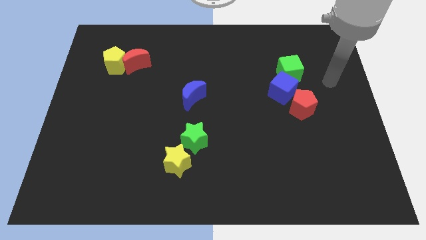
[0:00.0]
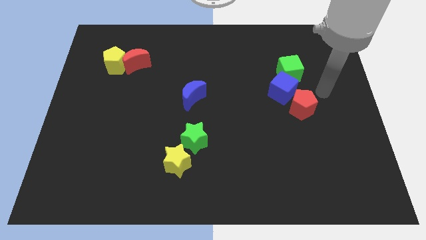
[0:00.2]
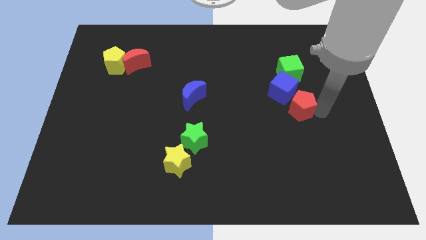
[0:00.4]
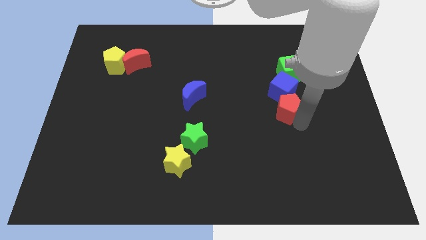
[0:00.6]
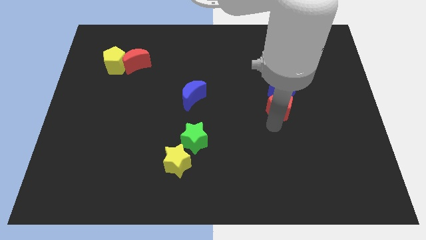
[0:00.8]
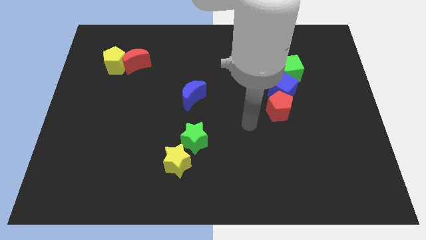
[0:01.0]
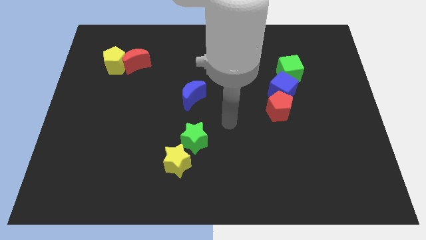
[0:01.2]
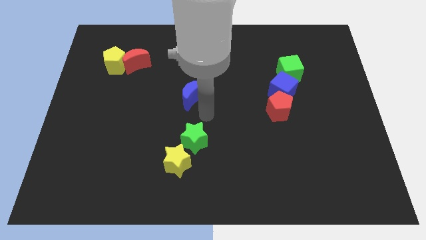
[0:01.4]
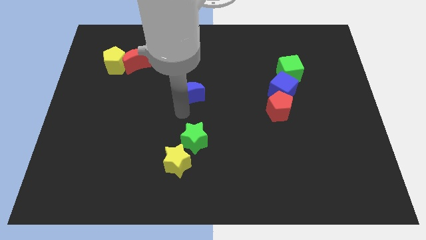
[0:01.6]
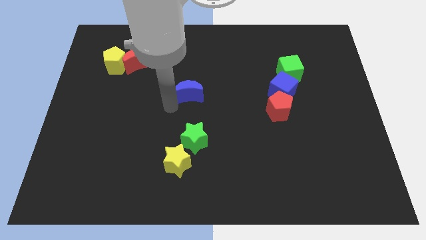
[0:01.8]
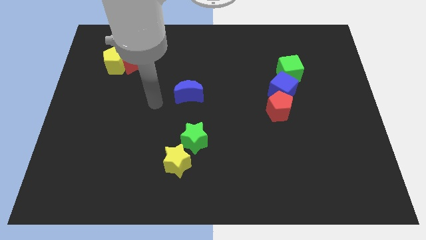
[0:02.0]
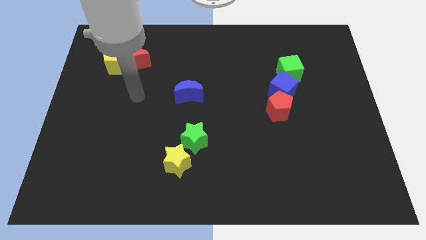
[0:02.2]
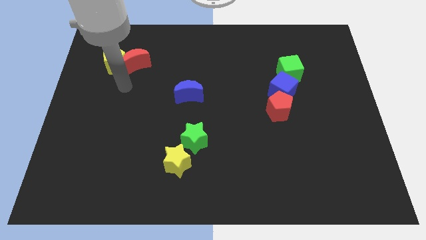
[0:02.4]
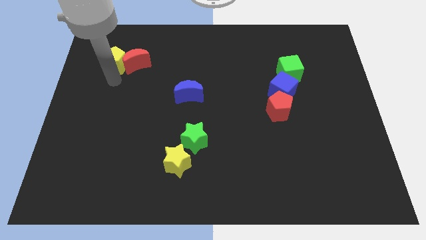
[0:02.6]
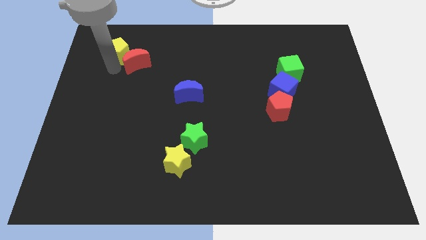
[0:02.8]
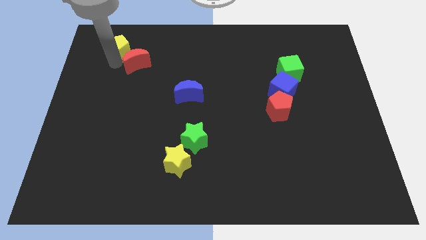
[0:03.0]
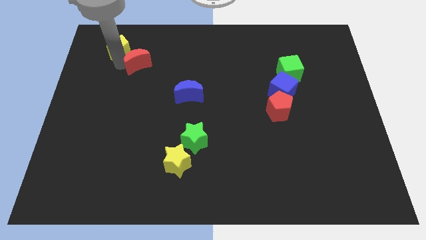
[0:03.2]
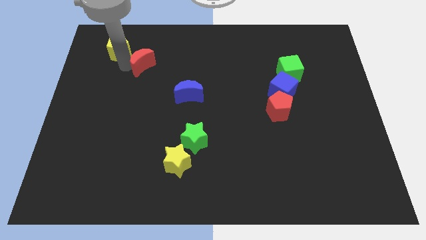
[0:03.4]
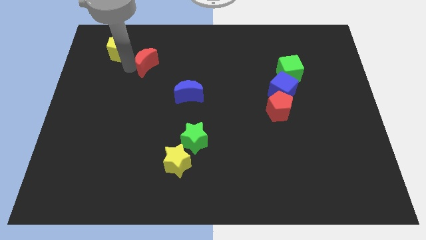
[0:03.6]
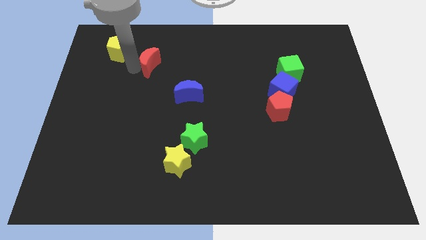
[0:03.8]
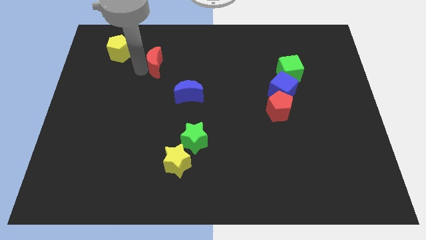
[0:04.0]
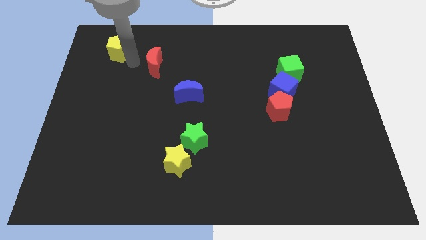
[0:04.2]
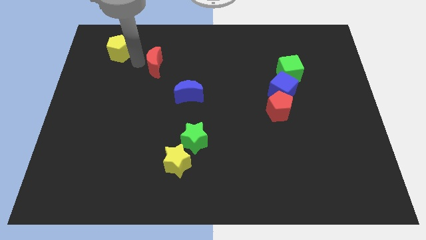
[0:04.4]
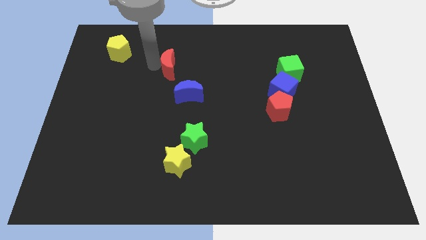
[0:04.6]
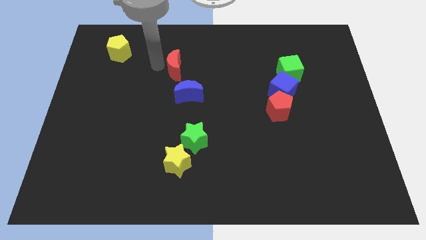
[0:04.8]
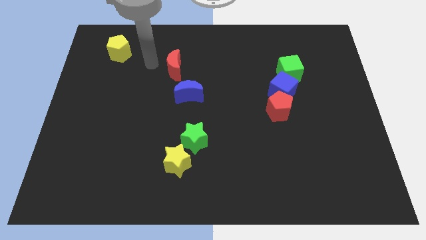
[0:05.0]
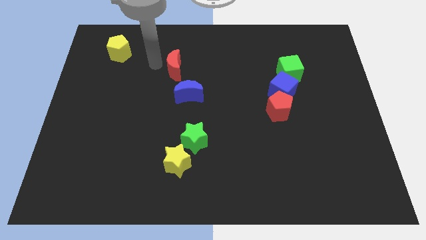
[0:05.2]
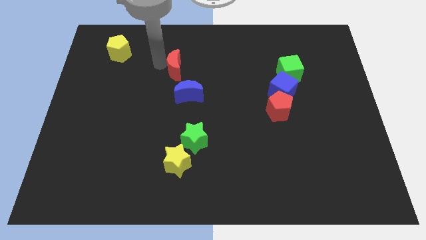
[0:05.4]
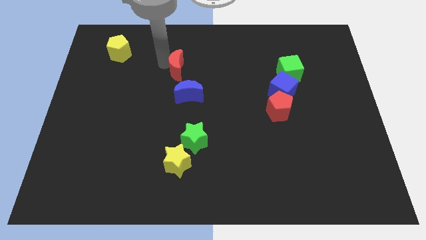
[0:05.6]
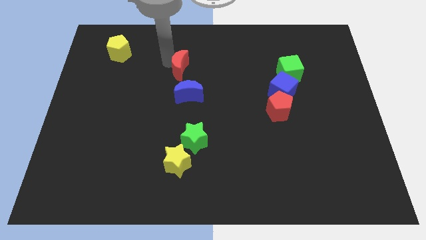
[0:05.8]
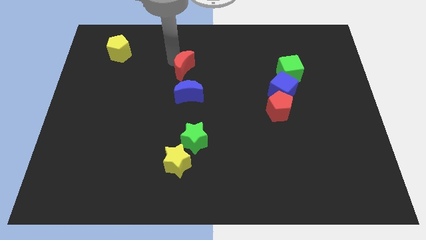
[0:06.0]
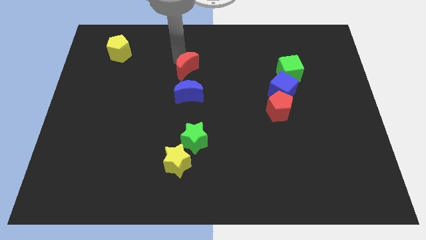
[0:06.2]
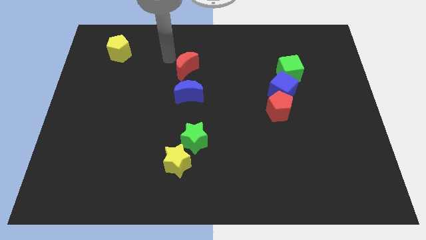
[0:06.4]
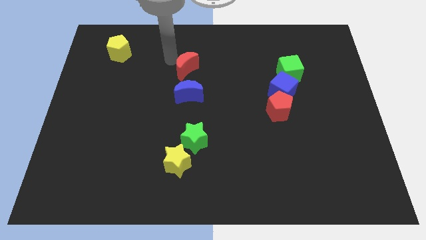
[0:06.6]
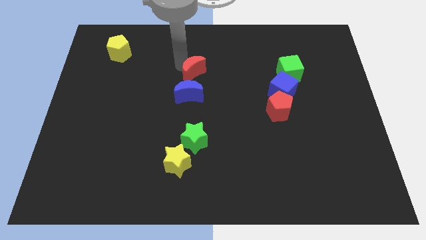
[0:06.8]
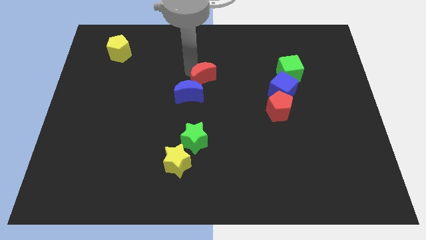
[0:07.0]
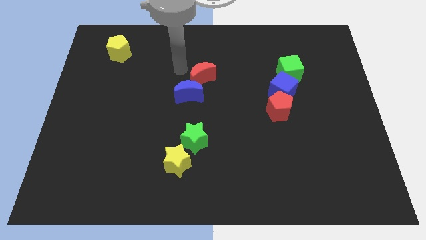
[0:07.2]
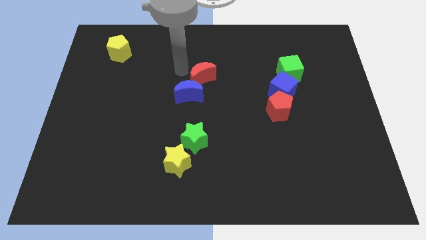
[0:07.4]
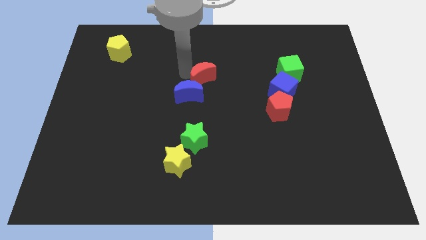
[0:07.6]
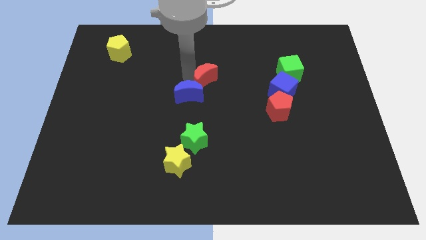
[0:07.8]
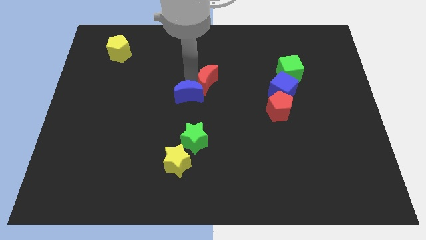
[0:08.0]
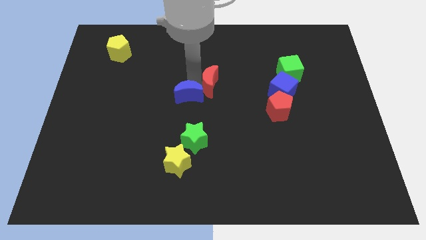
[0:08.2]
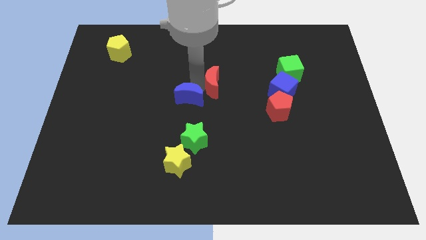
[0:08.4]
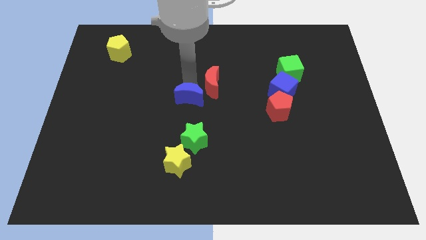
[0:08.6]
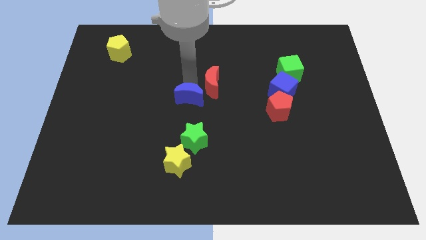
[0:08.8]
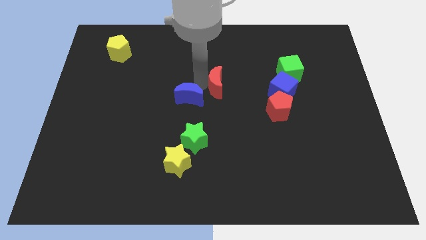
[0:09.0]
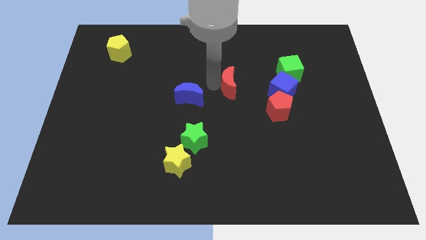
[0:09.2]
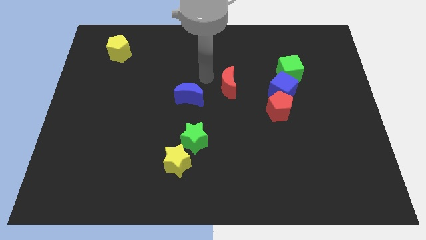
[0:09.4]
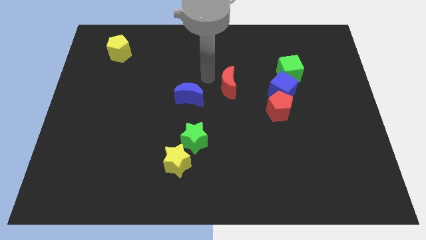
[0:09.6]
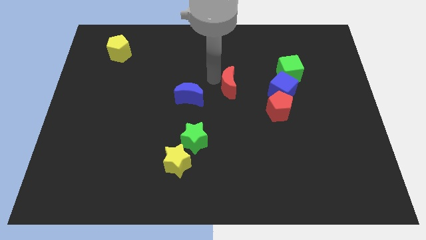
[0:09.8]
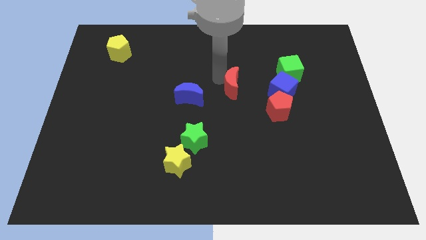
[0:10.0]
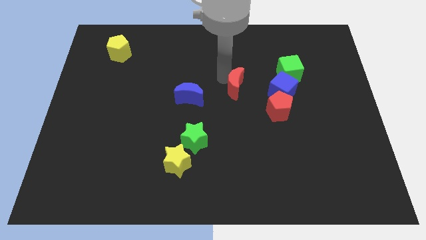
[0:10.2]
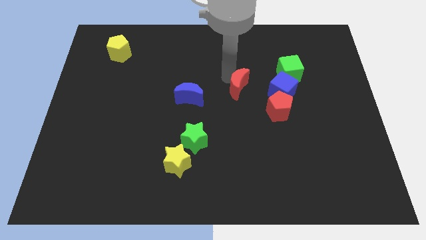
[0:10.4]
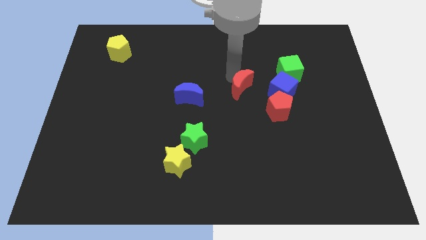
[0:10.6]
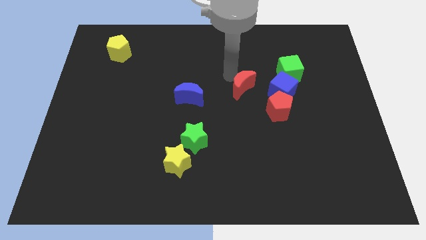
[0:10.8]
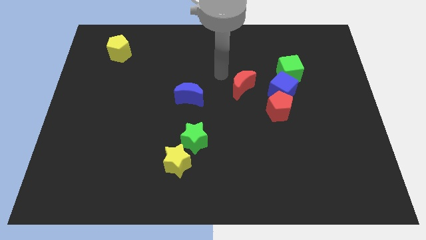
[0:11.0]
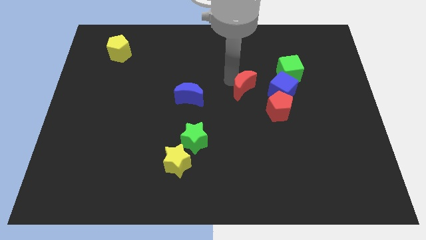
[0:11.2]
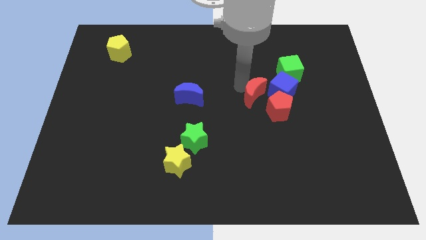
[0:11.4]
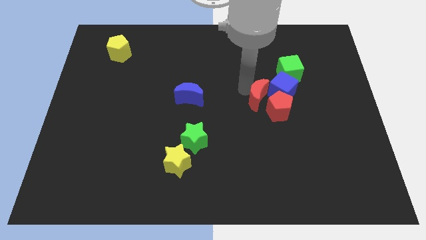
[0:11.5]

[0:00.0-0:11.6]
move the red moon next to the red pentagon

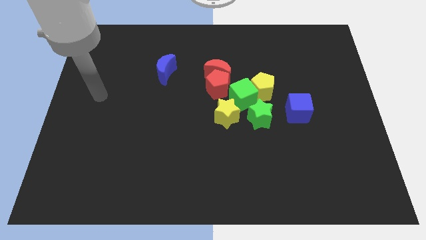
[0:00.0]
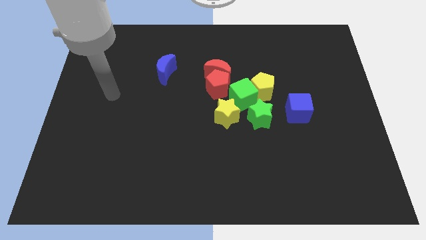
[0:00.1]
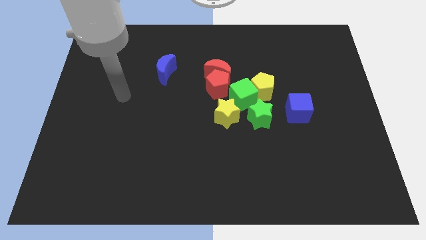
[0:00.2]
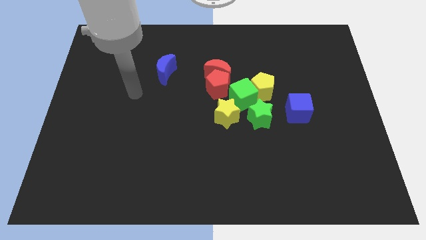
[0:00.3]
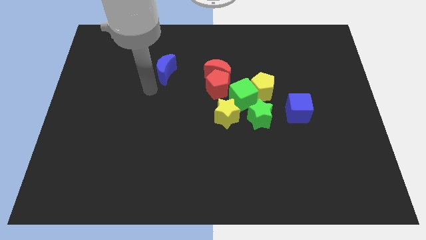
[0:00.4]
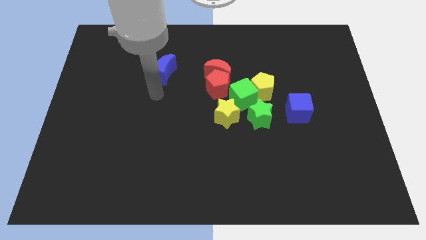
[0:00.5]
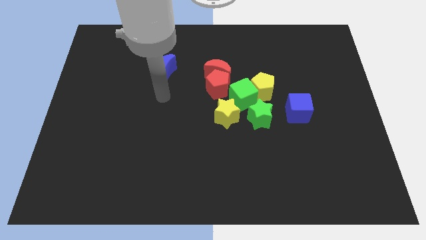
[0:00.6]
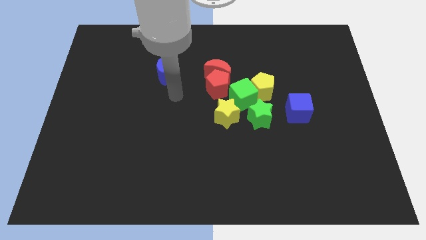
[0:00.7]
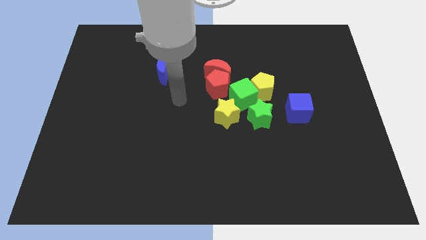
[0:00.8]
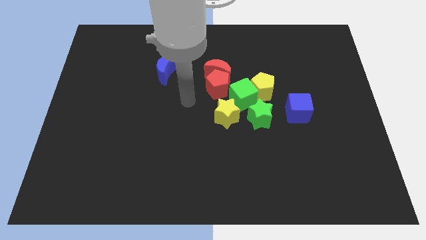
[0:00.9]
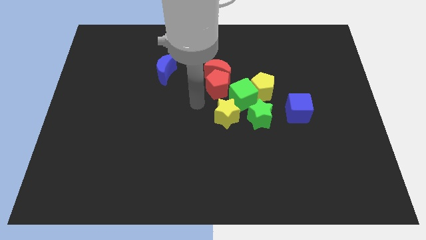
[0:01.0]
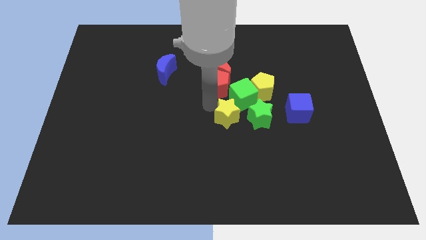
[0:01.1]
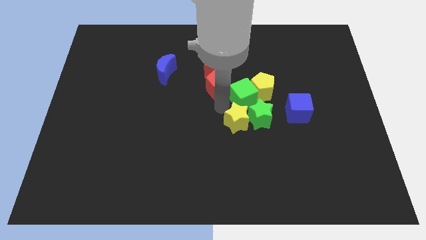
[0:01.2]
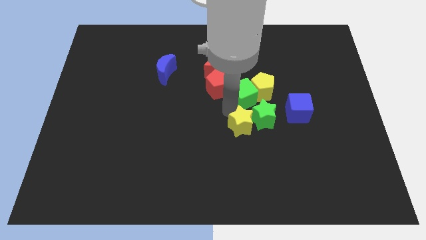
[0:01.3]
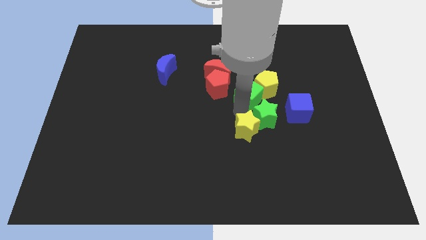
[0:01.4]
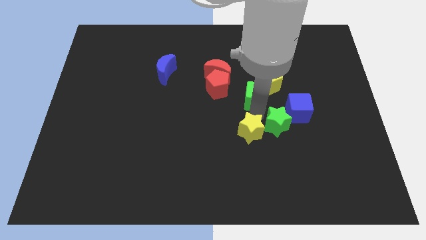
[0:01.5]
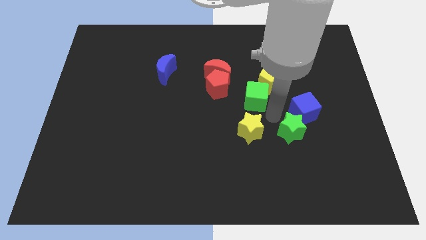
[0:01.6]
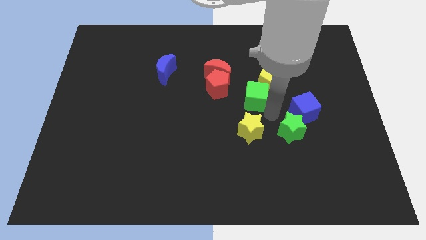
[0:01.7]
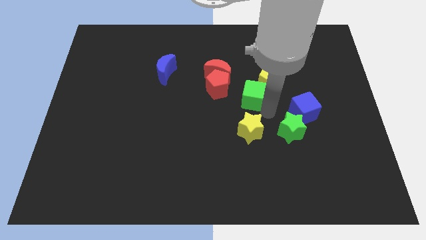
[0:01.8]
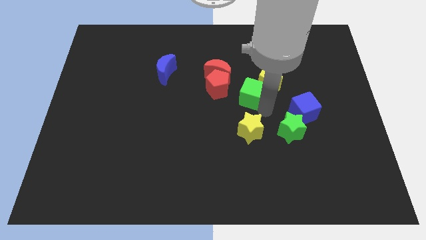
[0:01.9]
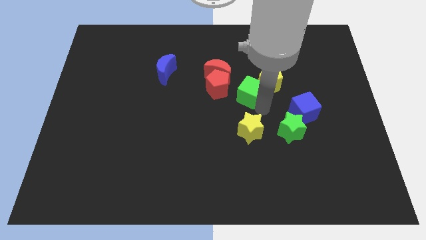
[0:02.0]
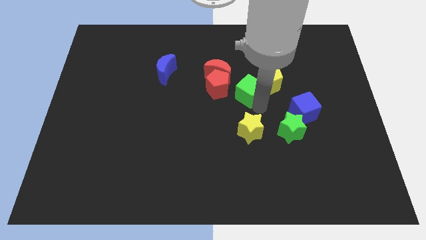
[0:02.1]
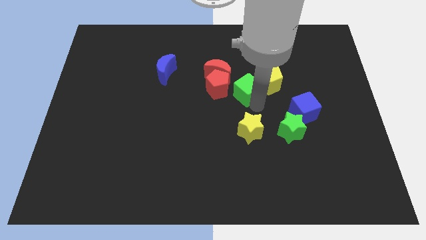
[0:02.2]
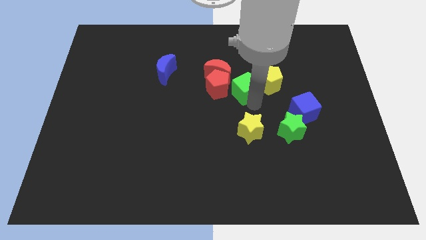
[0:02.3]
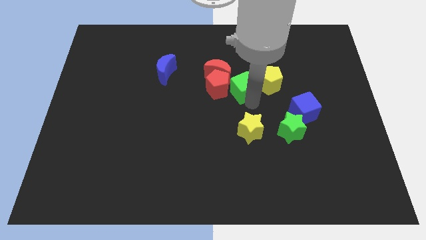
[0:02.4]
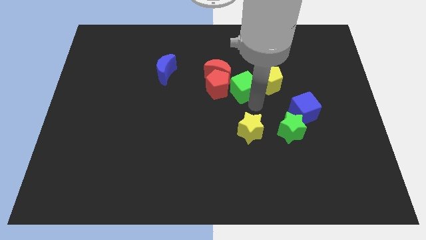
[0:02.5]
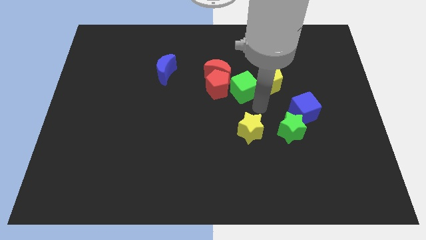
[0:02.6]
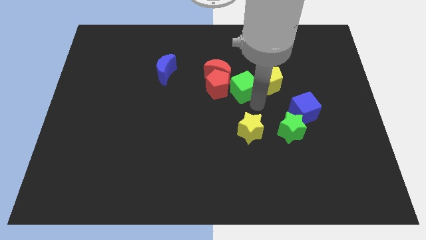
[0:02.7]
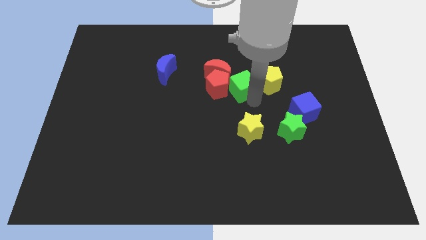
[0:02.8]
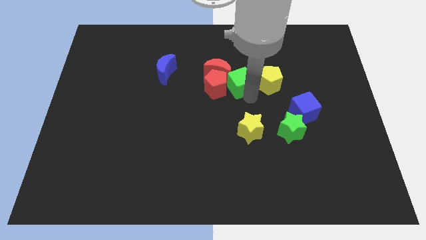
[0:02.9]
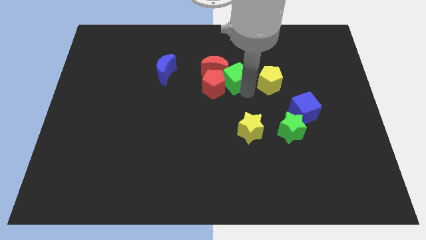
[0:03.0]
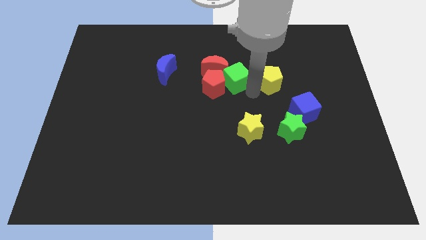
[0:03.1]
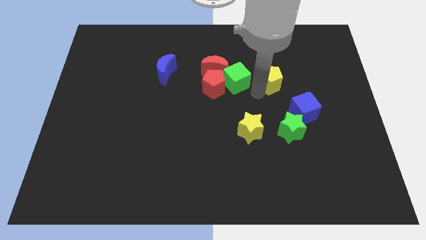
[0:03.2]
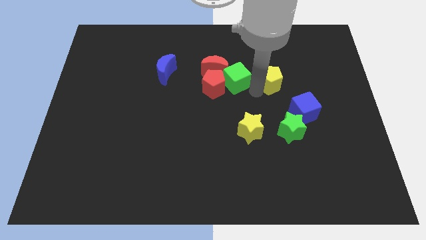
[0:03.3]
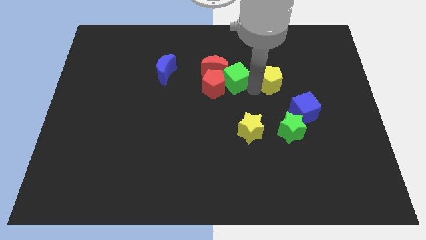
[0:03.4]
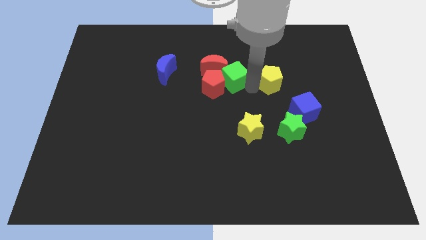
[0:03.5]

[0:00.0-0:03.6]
put the green cube to the red moon
